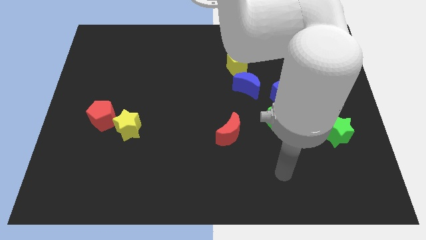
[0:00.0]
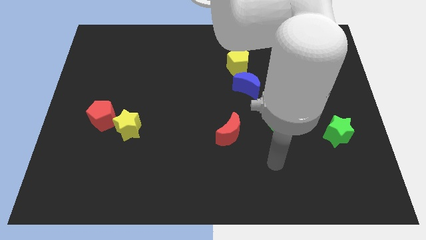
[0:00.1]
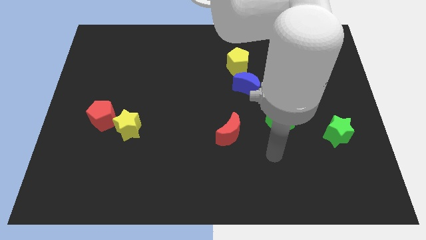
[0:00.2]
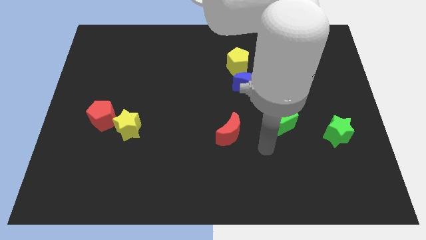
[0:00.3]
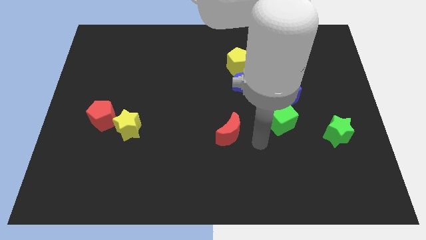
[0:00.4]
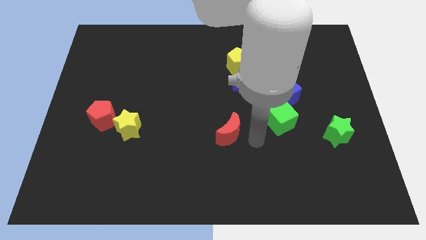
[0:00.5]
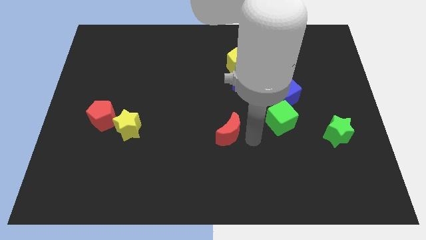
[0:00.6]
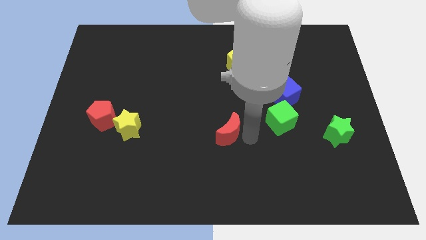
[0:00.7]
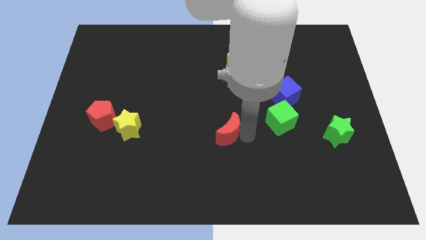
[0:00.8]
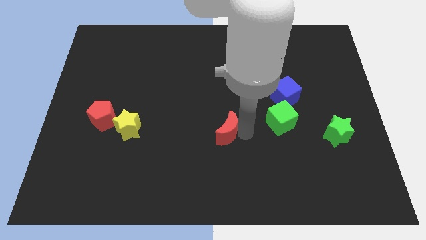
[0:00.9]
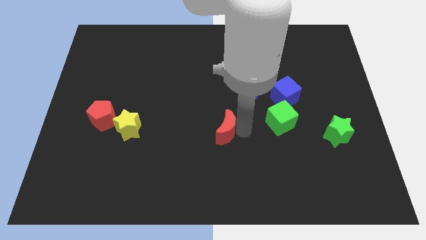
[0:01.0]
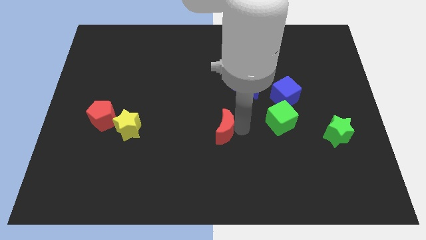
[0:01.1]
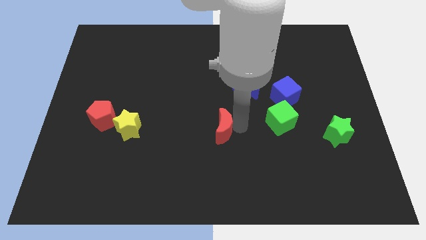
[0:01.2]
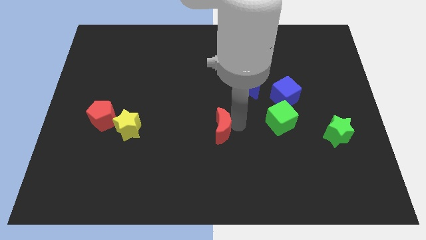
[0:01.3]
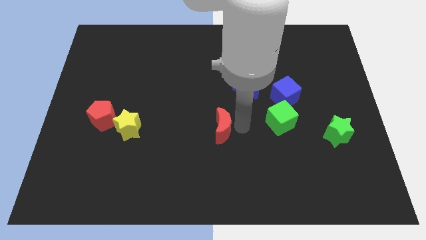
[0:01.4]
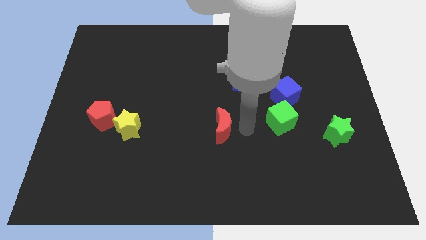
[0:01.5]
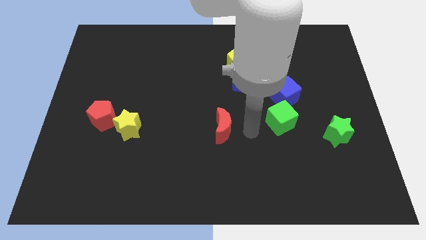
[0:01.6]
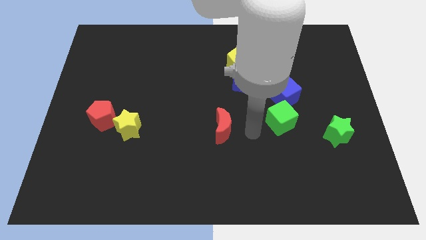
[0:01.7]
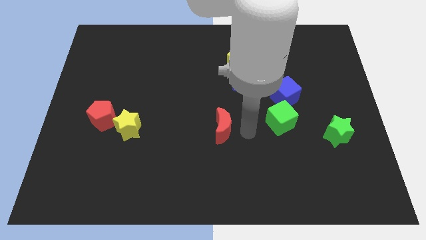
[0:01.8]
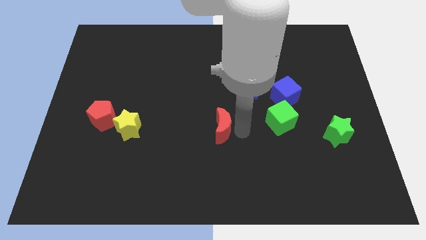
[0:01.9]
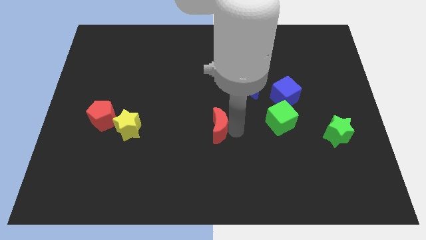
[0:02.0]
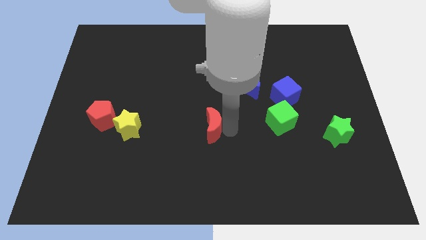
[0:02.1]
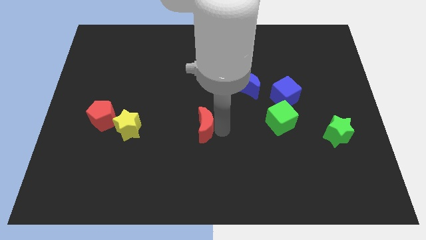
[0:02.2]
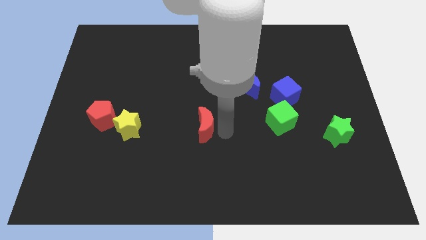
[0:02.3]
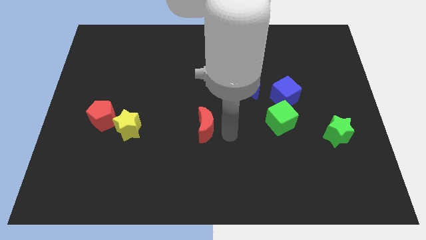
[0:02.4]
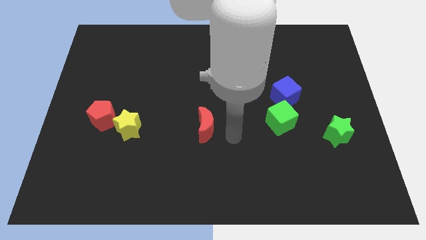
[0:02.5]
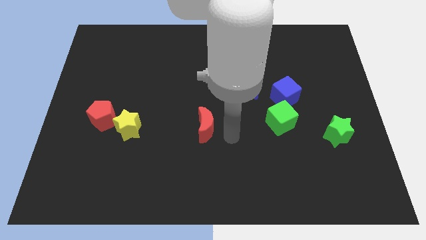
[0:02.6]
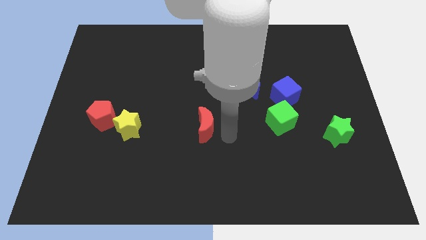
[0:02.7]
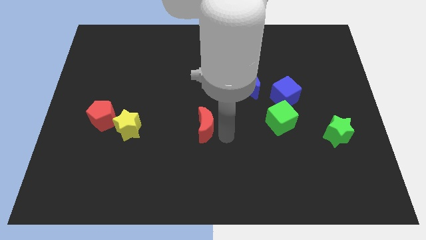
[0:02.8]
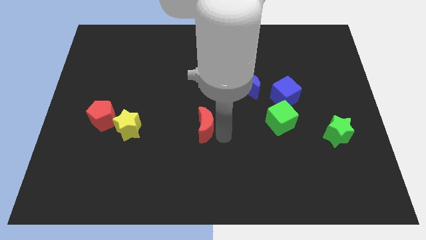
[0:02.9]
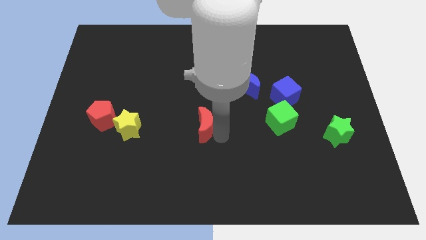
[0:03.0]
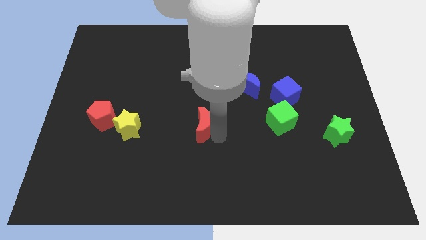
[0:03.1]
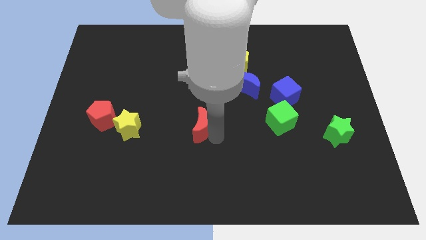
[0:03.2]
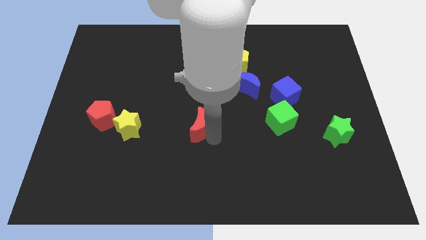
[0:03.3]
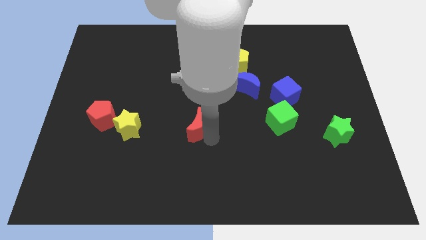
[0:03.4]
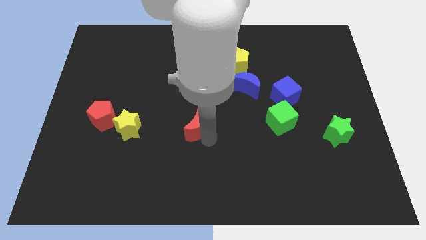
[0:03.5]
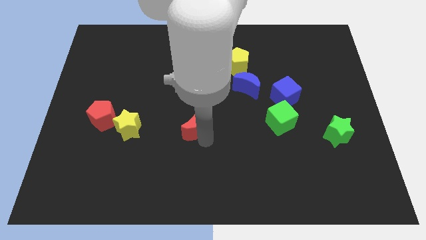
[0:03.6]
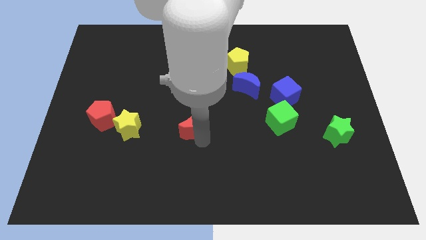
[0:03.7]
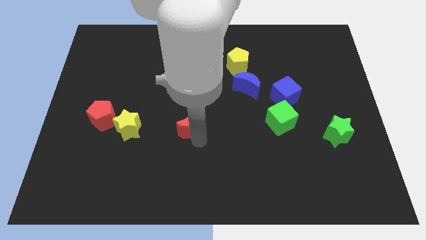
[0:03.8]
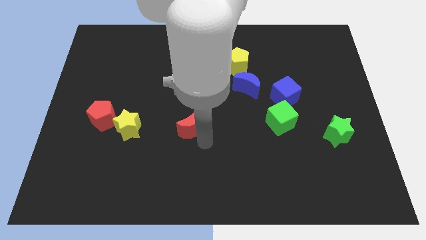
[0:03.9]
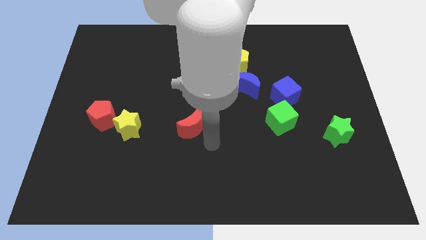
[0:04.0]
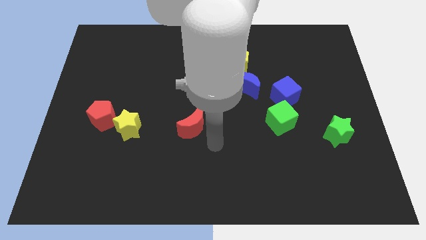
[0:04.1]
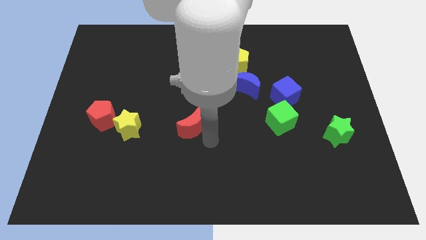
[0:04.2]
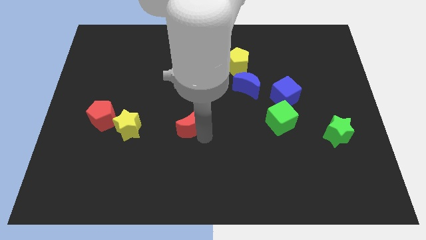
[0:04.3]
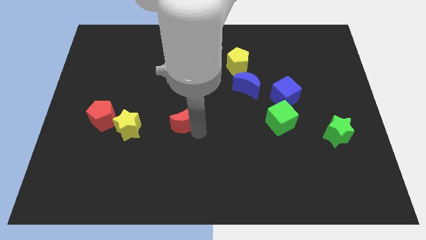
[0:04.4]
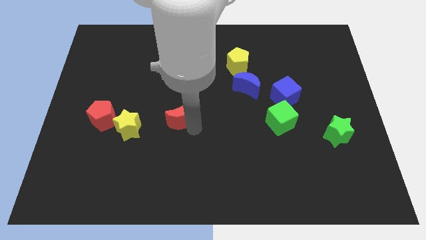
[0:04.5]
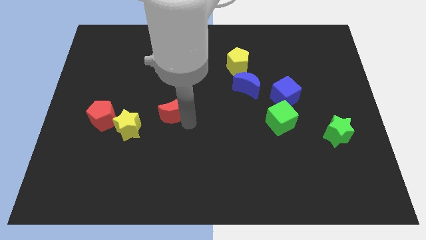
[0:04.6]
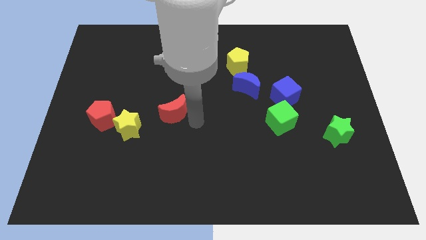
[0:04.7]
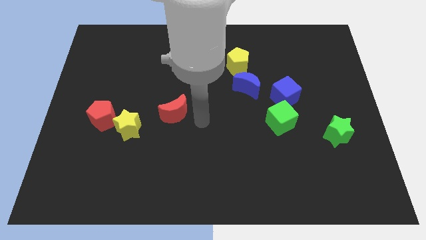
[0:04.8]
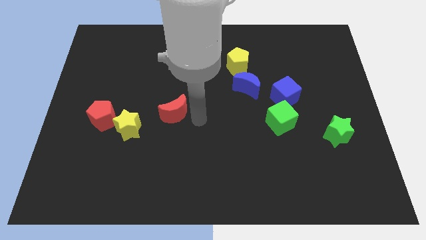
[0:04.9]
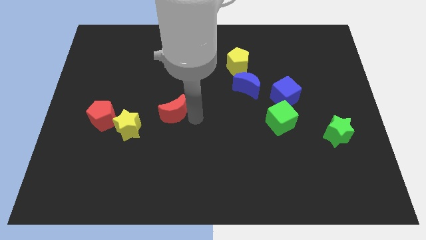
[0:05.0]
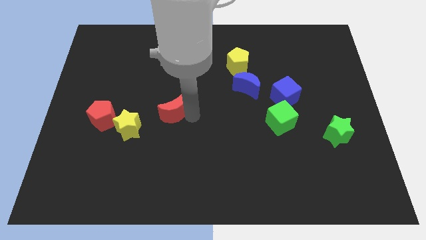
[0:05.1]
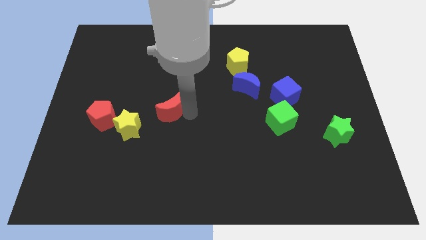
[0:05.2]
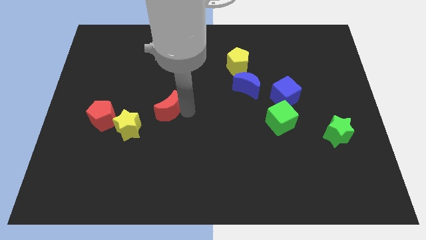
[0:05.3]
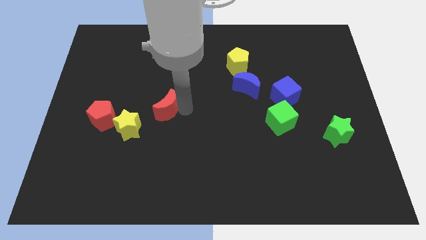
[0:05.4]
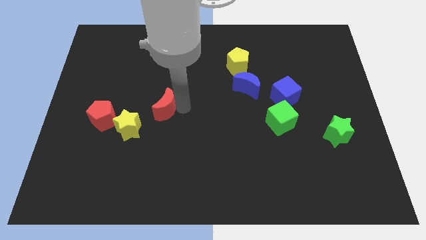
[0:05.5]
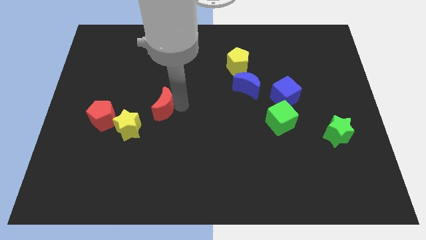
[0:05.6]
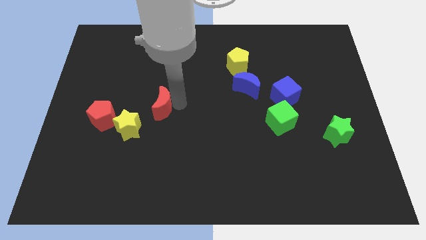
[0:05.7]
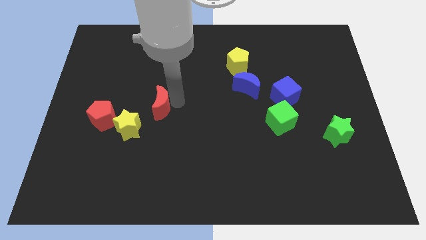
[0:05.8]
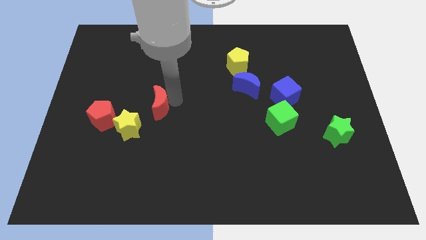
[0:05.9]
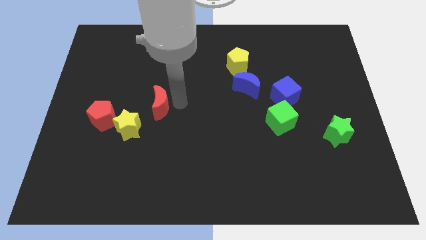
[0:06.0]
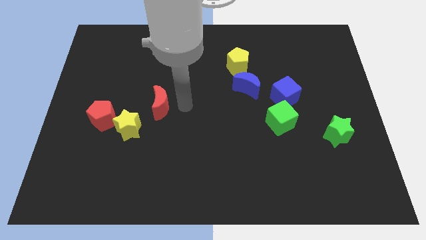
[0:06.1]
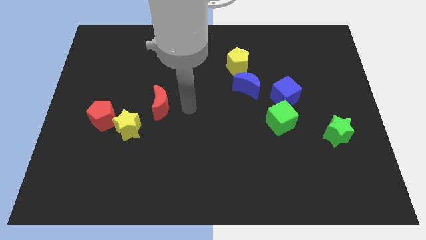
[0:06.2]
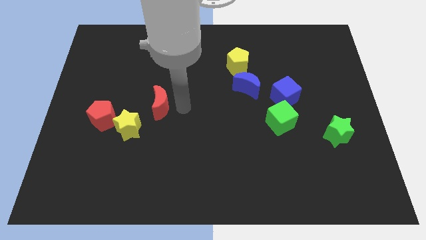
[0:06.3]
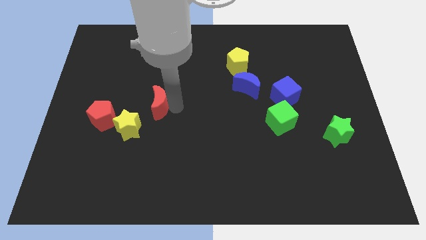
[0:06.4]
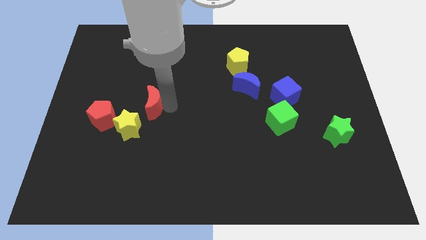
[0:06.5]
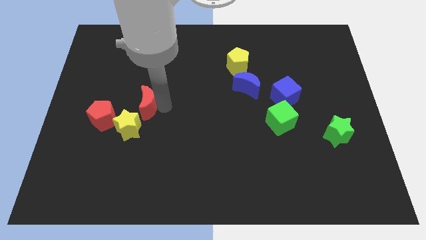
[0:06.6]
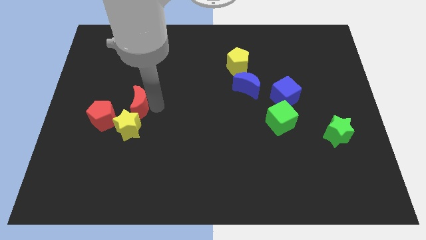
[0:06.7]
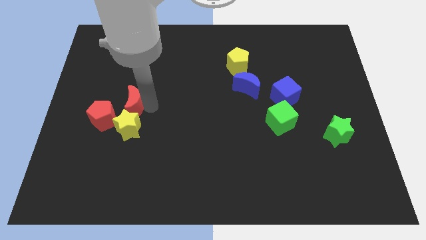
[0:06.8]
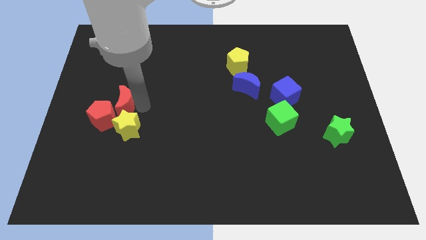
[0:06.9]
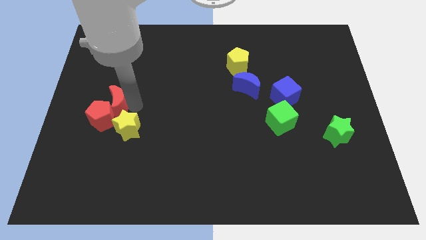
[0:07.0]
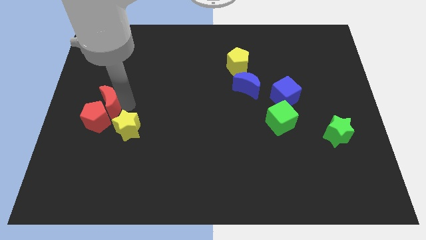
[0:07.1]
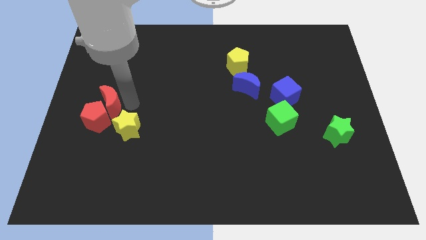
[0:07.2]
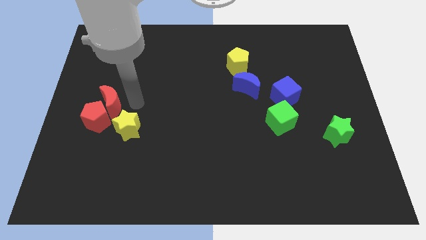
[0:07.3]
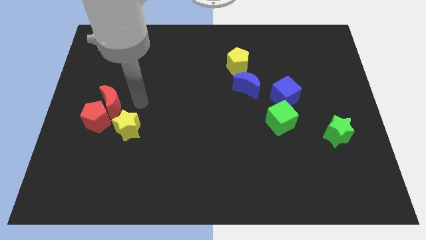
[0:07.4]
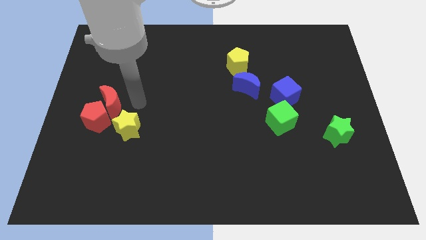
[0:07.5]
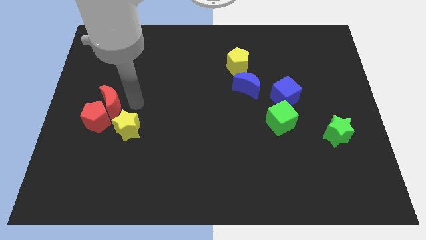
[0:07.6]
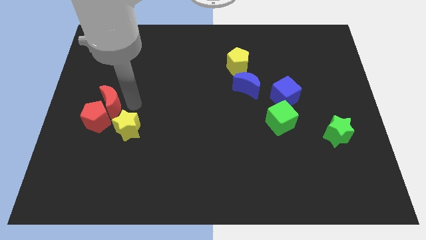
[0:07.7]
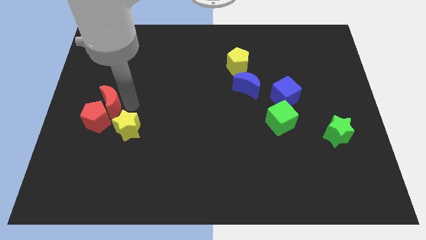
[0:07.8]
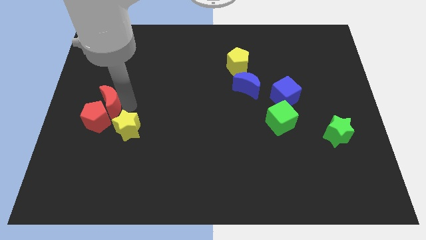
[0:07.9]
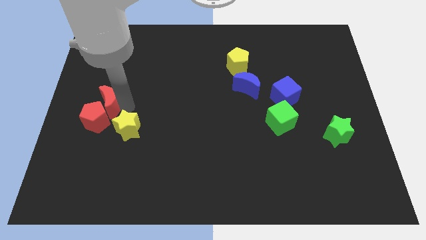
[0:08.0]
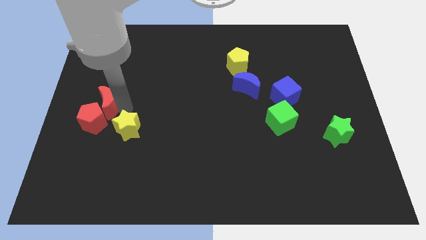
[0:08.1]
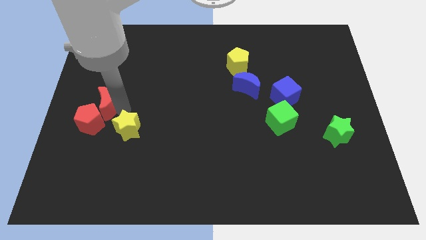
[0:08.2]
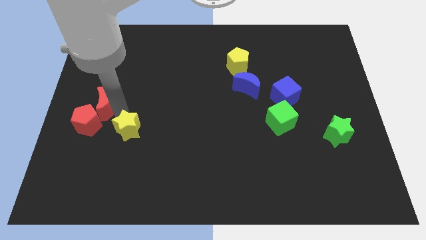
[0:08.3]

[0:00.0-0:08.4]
slide the red moon to the left side
